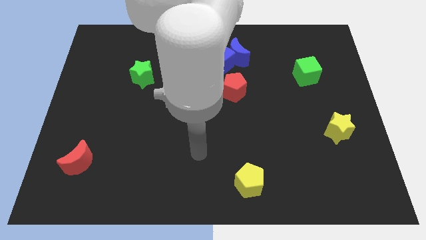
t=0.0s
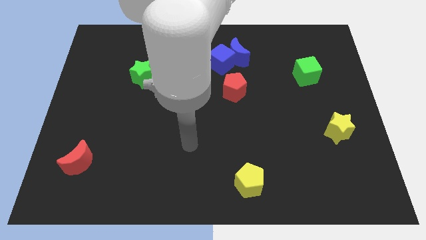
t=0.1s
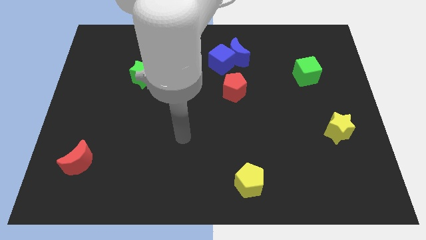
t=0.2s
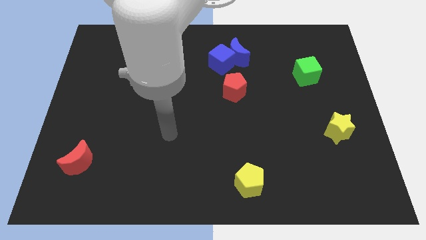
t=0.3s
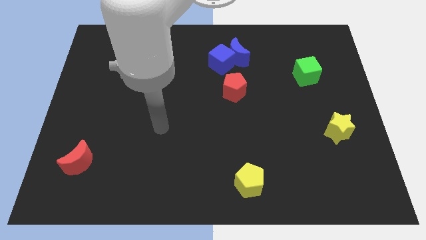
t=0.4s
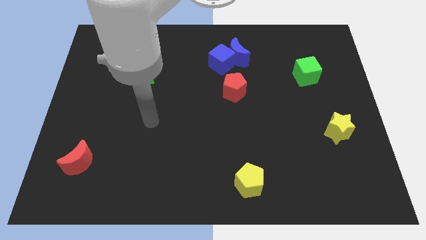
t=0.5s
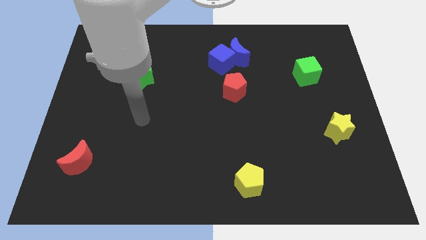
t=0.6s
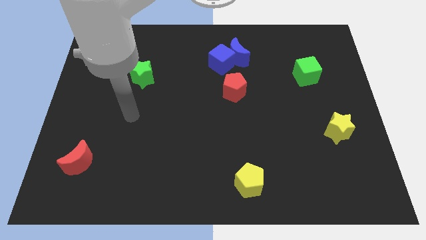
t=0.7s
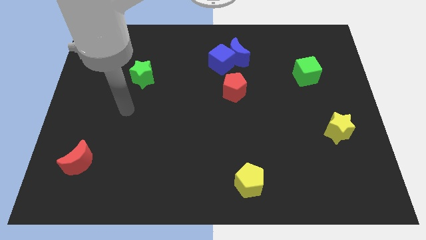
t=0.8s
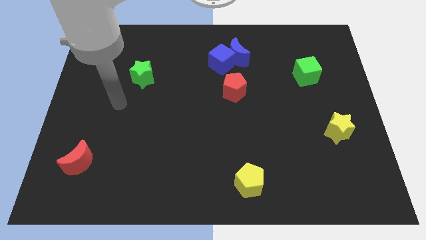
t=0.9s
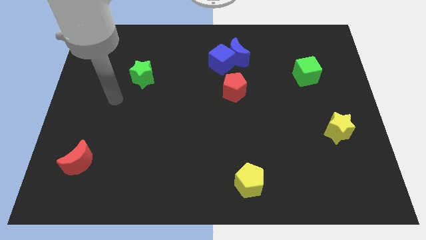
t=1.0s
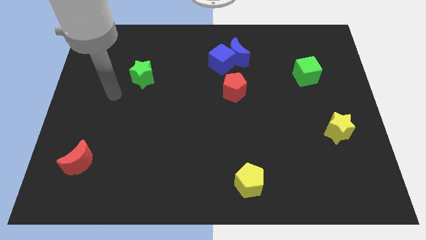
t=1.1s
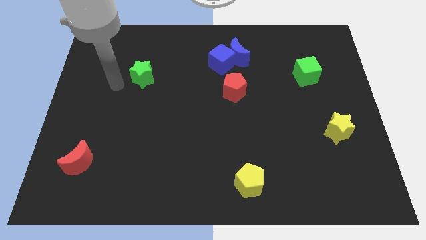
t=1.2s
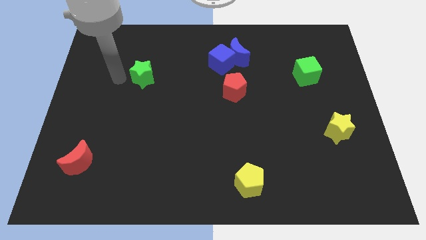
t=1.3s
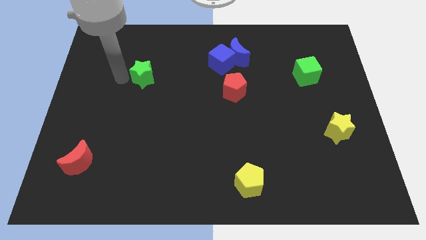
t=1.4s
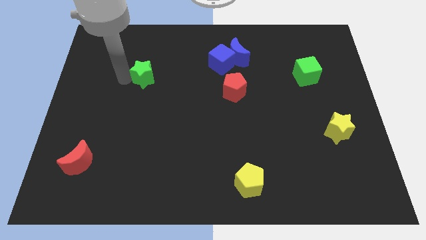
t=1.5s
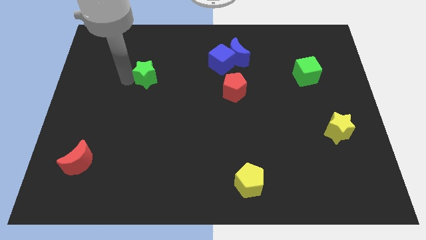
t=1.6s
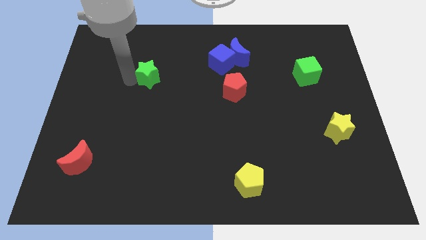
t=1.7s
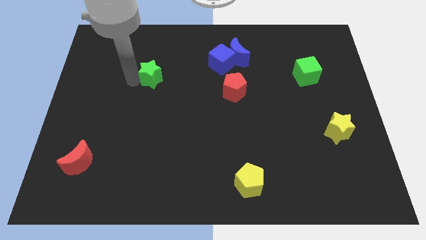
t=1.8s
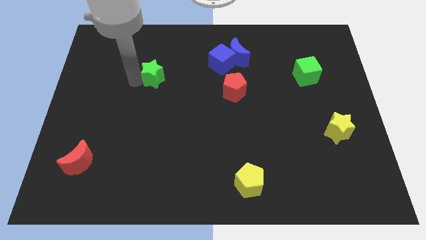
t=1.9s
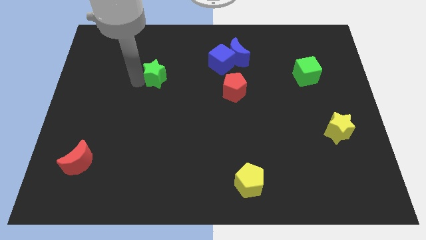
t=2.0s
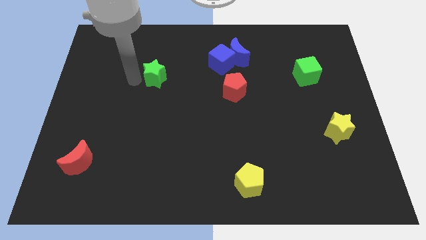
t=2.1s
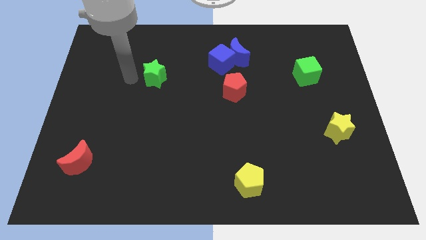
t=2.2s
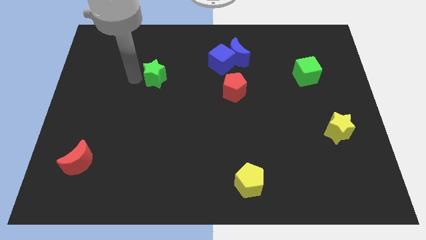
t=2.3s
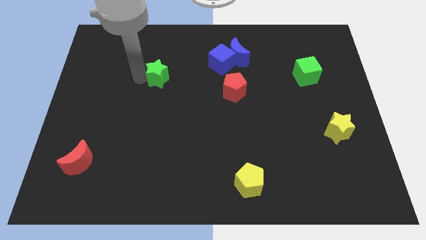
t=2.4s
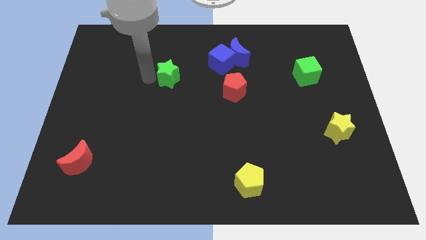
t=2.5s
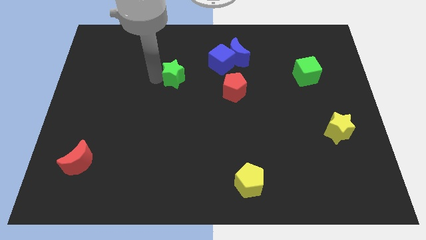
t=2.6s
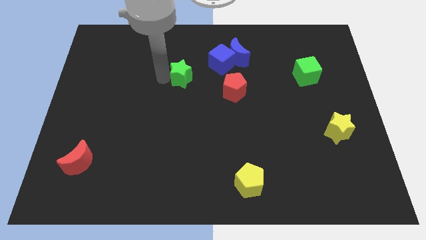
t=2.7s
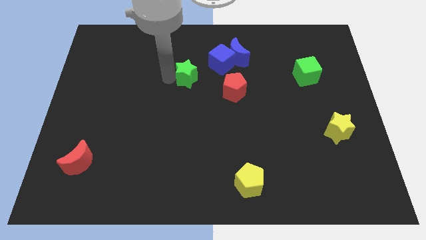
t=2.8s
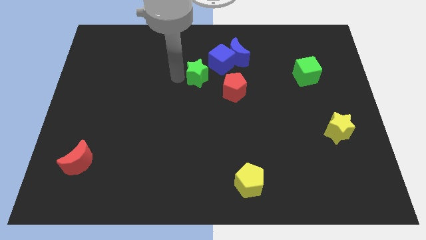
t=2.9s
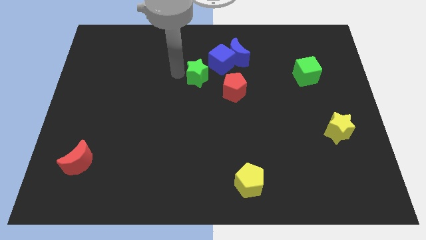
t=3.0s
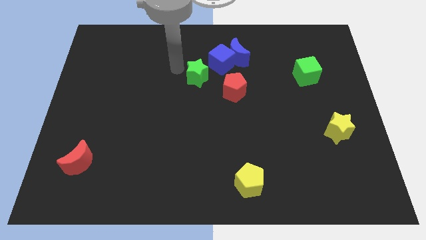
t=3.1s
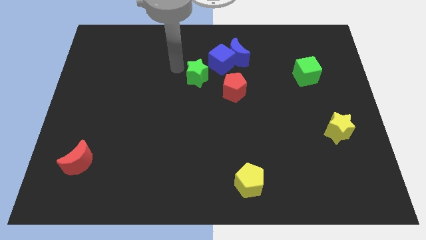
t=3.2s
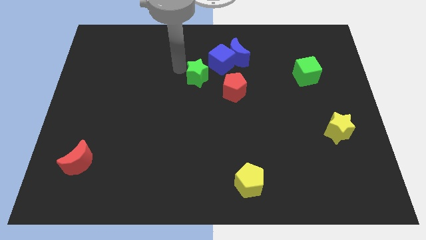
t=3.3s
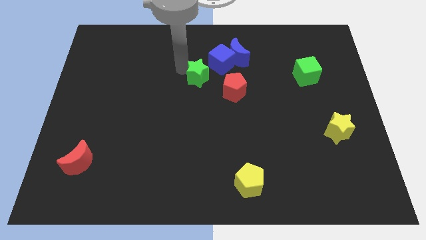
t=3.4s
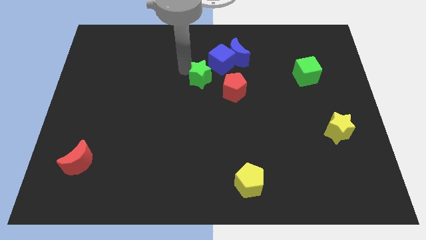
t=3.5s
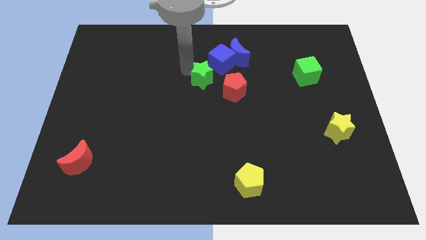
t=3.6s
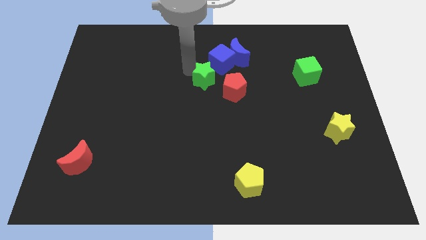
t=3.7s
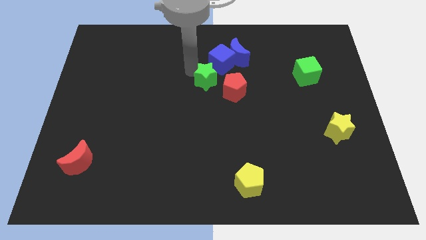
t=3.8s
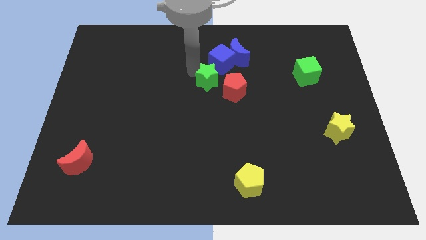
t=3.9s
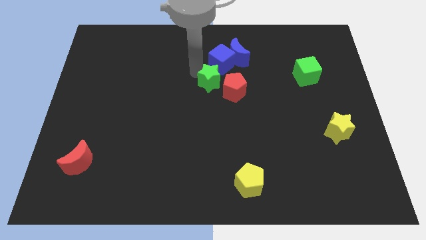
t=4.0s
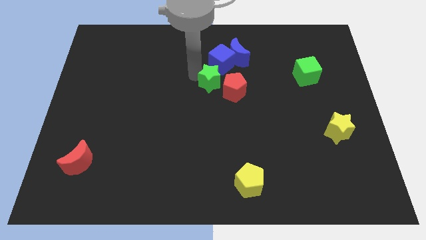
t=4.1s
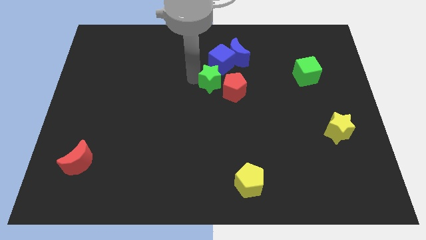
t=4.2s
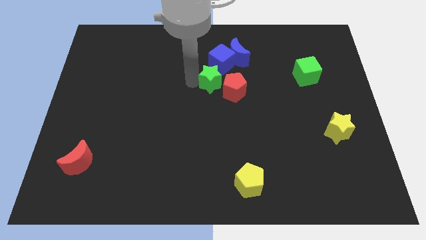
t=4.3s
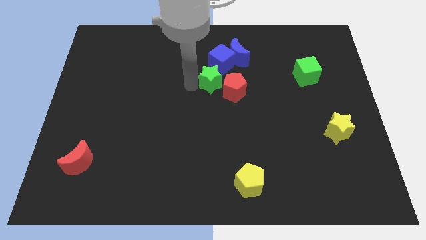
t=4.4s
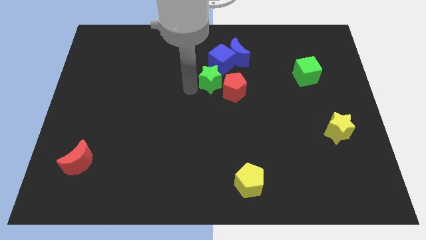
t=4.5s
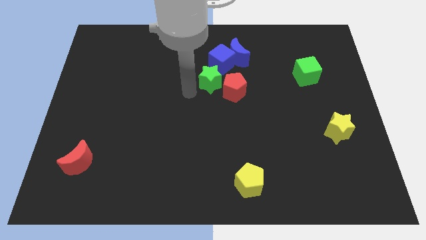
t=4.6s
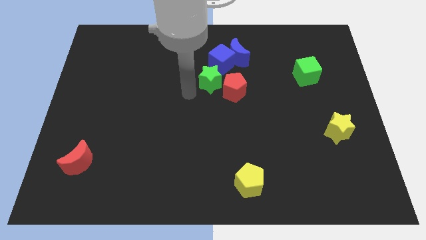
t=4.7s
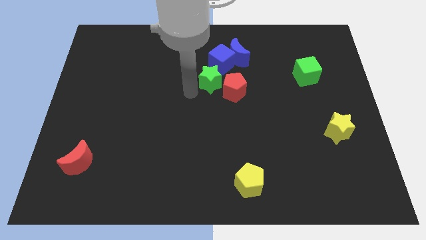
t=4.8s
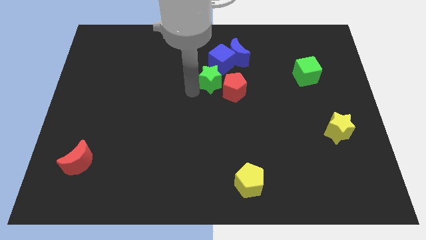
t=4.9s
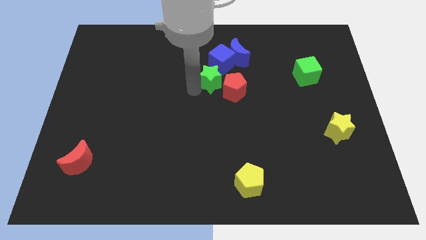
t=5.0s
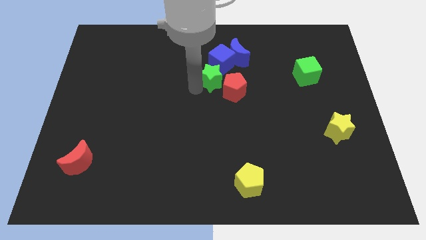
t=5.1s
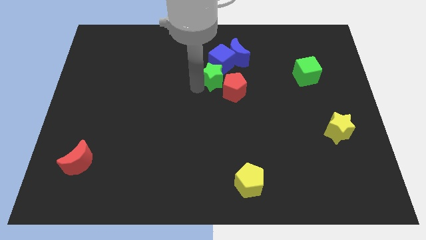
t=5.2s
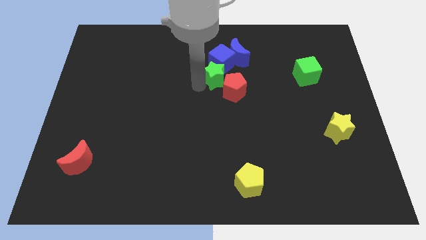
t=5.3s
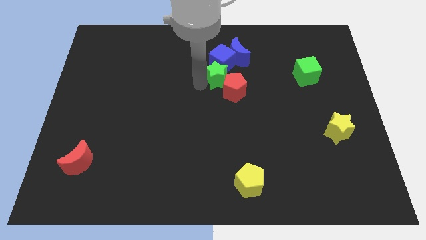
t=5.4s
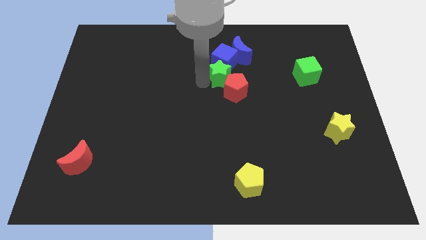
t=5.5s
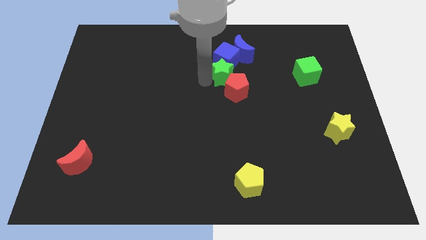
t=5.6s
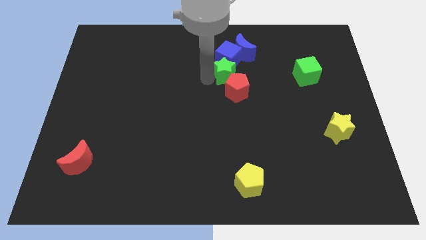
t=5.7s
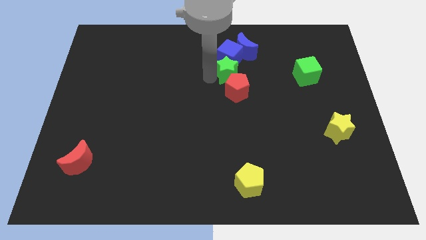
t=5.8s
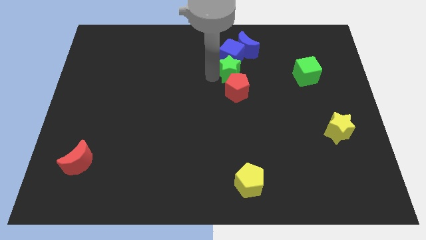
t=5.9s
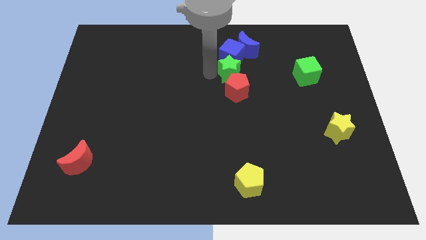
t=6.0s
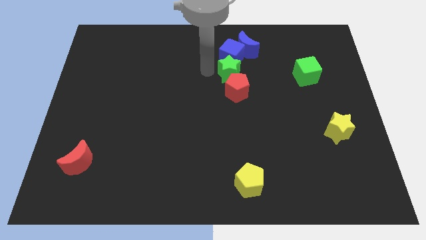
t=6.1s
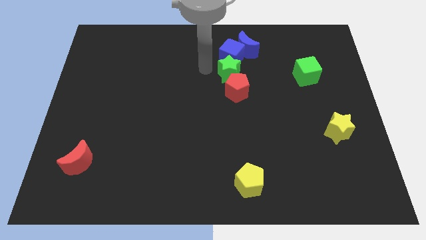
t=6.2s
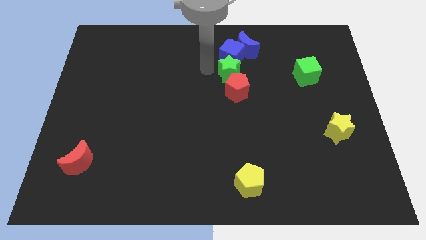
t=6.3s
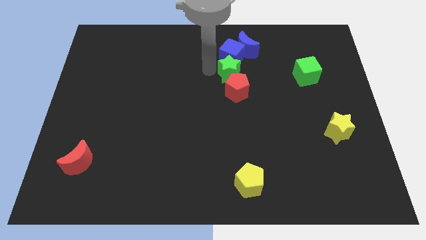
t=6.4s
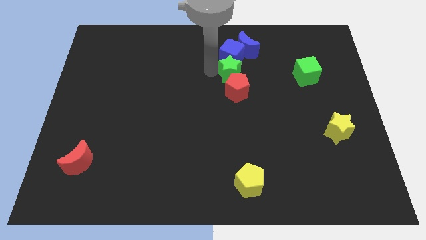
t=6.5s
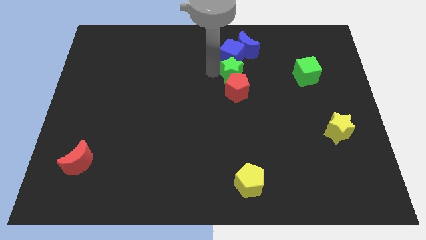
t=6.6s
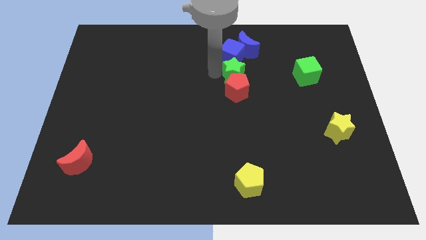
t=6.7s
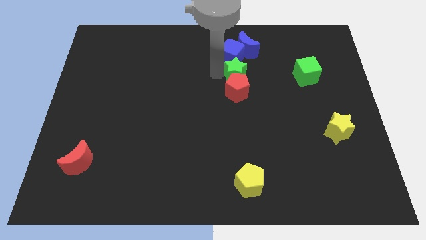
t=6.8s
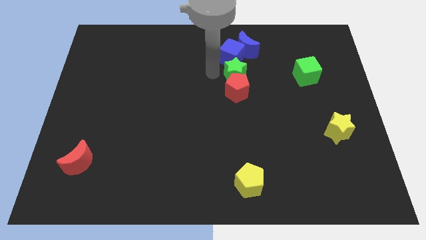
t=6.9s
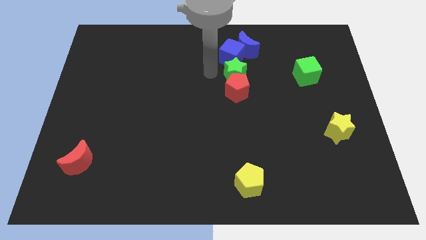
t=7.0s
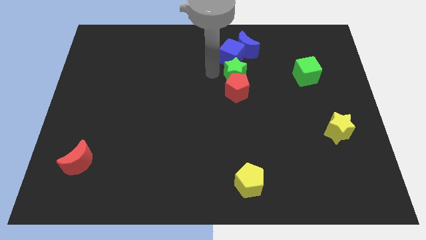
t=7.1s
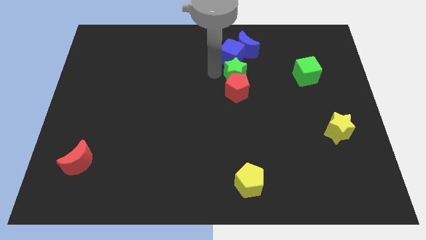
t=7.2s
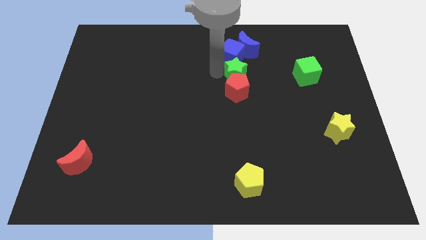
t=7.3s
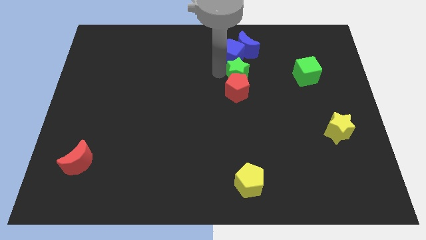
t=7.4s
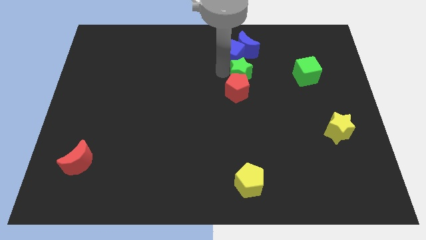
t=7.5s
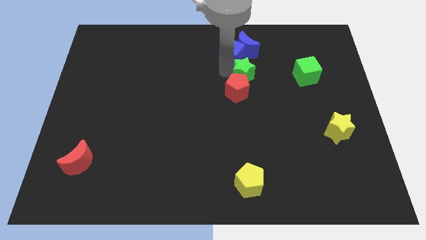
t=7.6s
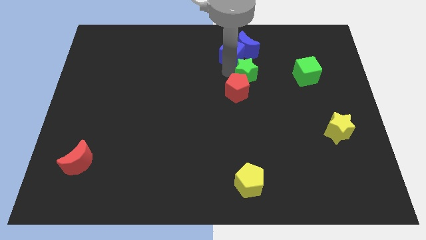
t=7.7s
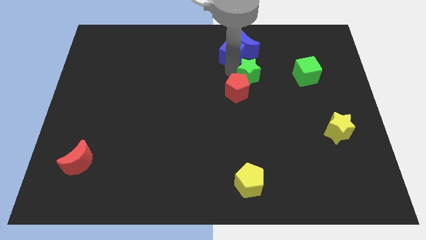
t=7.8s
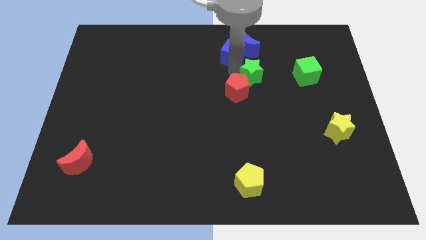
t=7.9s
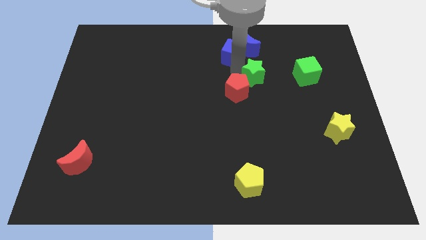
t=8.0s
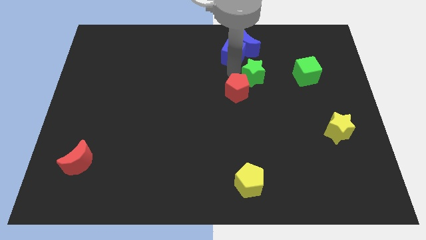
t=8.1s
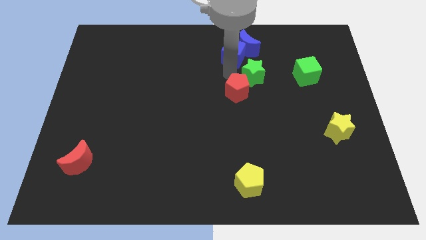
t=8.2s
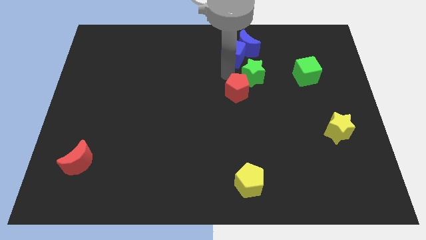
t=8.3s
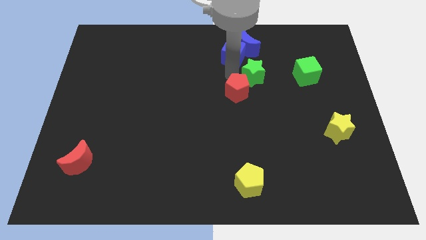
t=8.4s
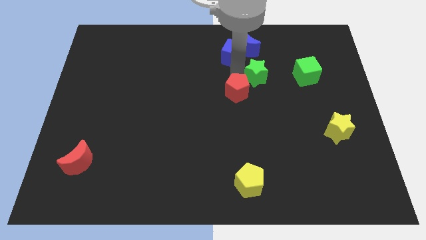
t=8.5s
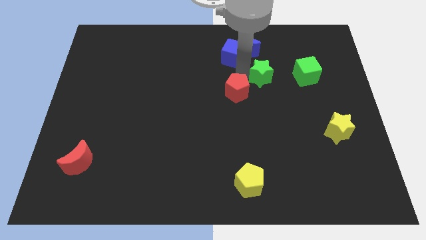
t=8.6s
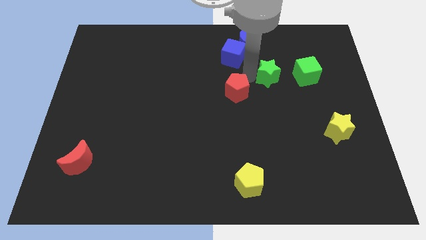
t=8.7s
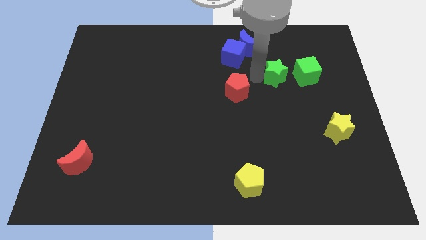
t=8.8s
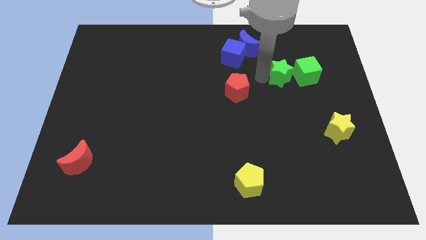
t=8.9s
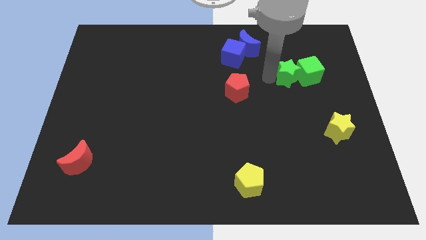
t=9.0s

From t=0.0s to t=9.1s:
move the green star close to the green cube
